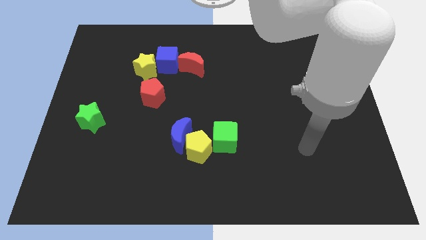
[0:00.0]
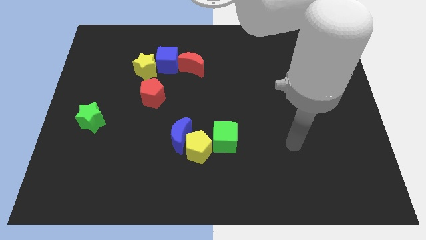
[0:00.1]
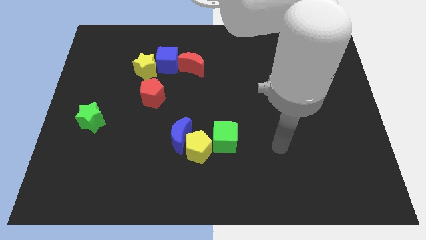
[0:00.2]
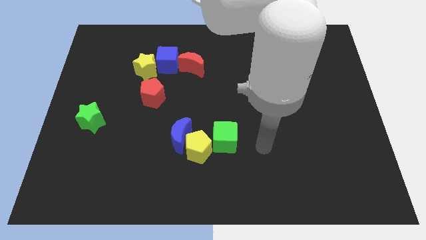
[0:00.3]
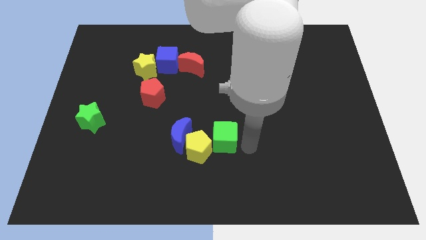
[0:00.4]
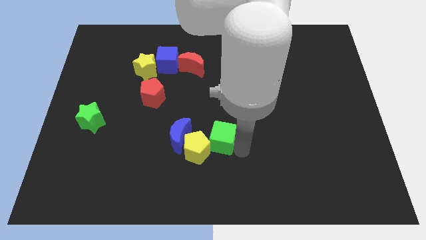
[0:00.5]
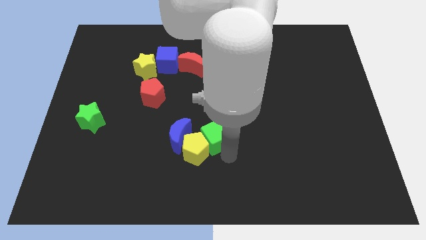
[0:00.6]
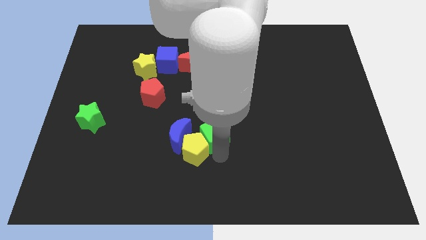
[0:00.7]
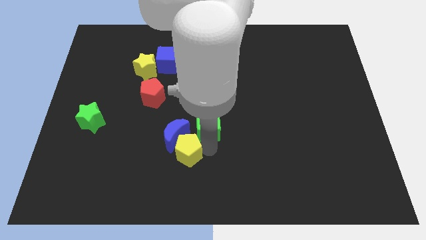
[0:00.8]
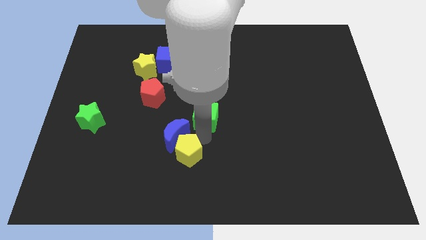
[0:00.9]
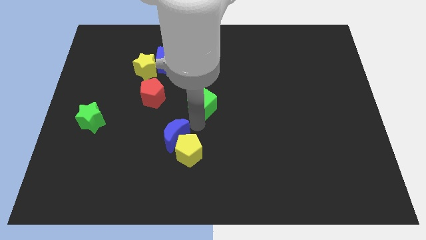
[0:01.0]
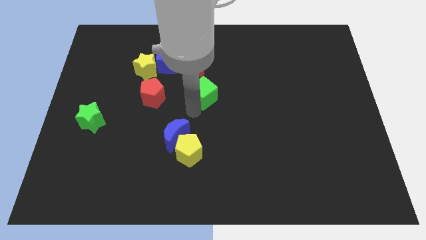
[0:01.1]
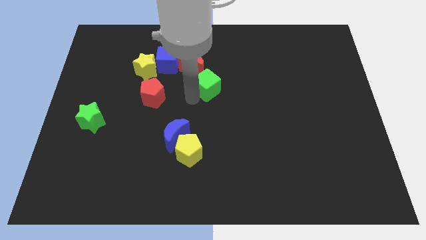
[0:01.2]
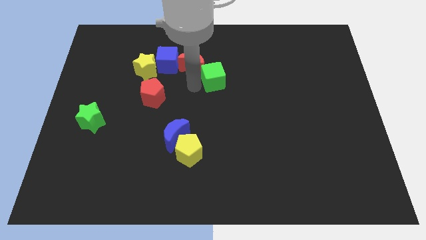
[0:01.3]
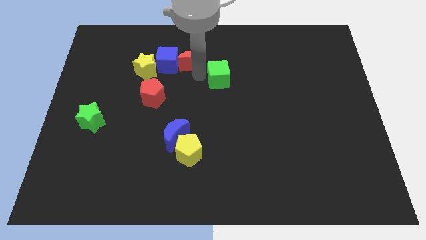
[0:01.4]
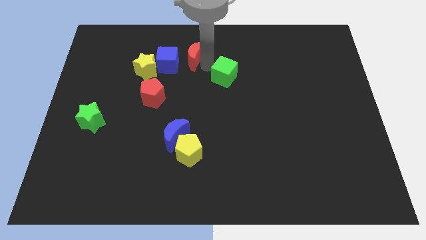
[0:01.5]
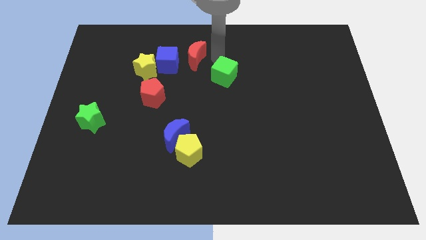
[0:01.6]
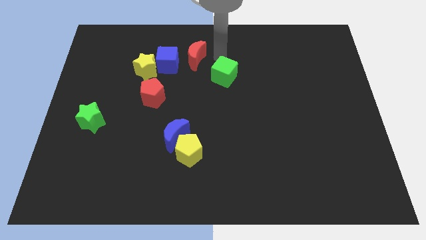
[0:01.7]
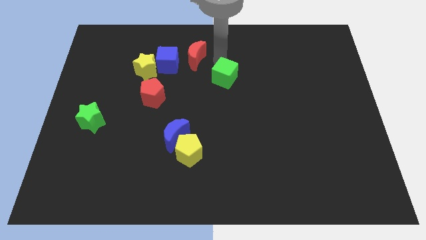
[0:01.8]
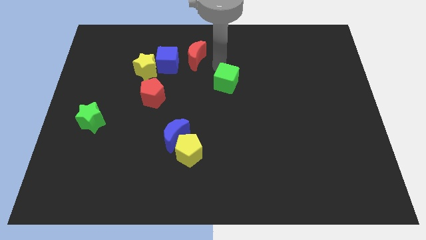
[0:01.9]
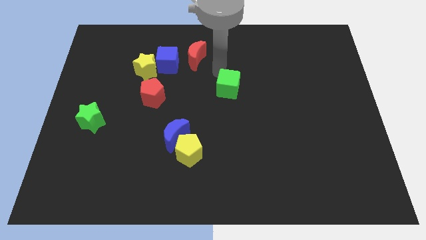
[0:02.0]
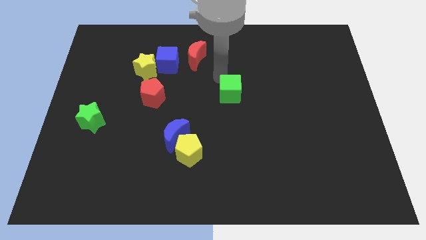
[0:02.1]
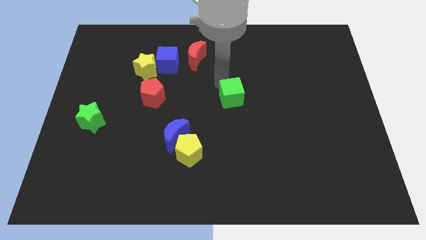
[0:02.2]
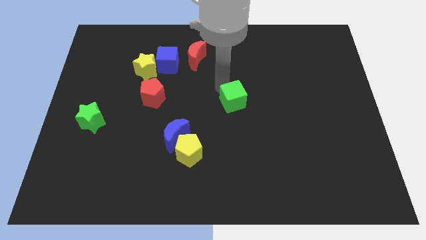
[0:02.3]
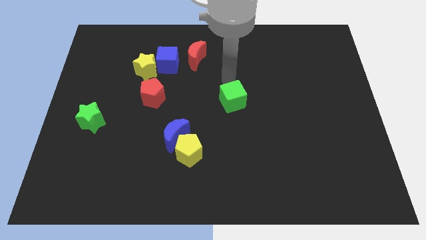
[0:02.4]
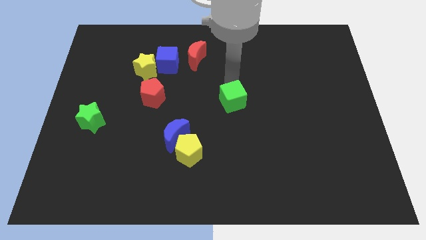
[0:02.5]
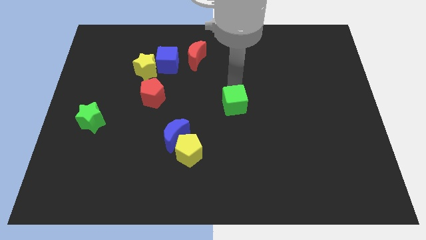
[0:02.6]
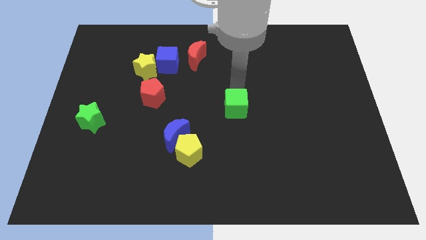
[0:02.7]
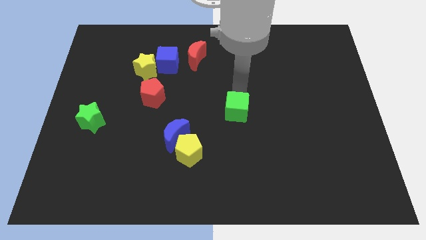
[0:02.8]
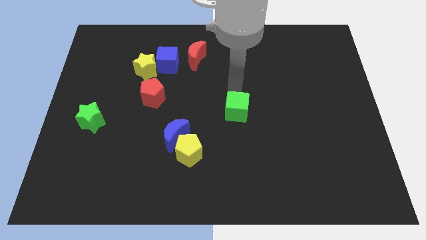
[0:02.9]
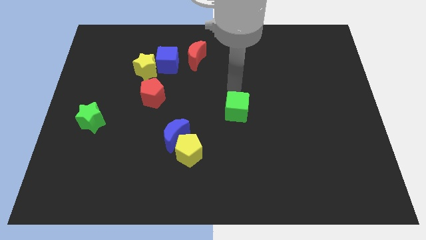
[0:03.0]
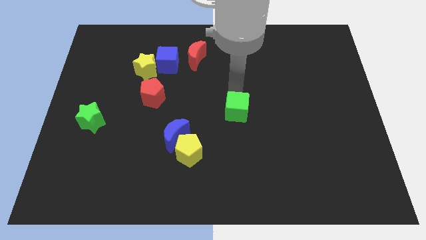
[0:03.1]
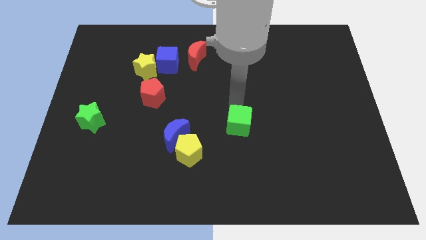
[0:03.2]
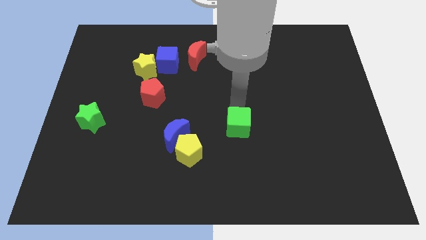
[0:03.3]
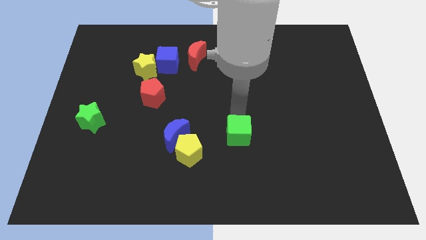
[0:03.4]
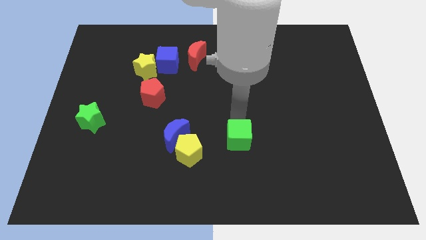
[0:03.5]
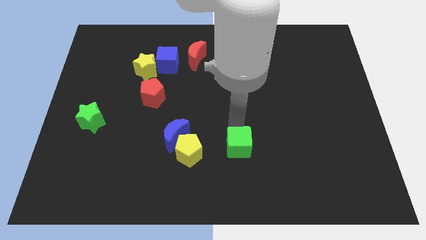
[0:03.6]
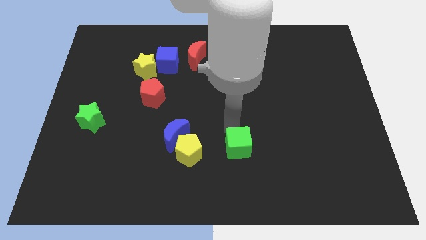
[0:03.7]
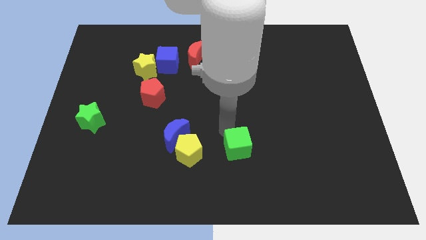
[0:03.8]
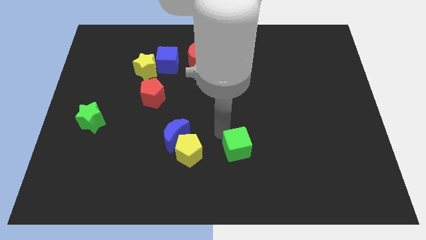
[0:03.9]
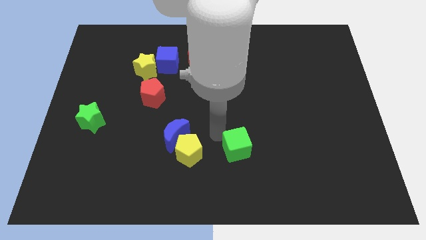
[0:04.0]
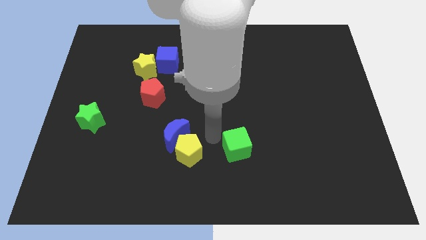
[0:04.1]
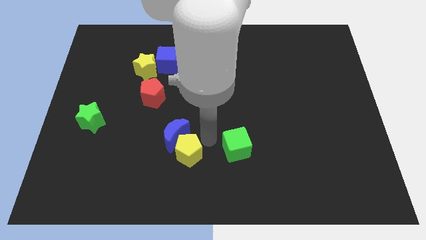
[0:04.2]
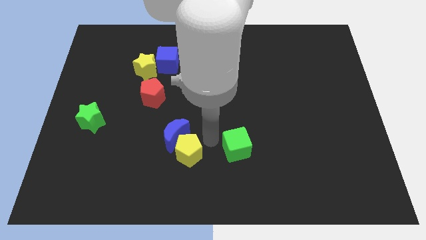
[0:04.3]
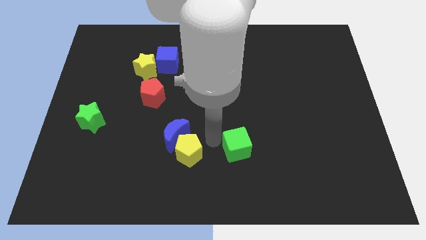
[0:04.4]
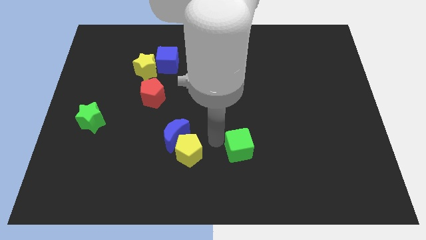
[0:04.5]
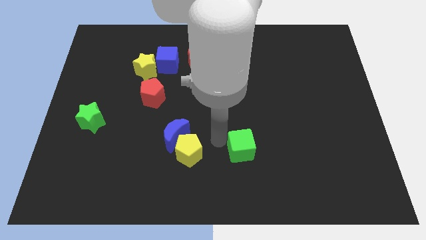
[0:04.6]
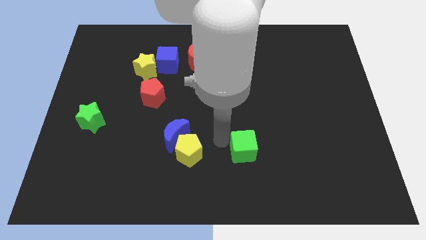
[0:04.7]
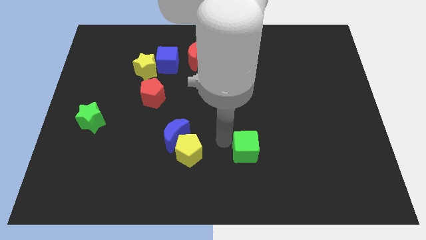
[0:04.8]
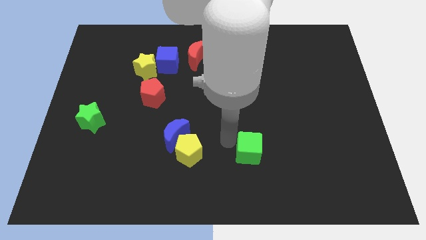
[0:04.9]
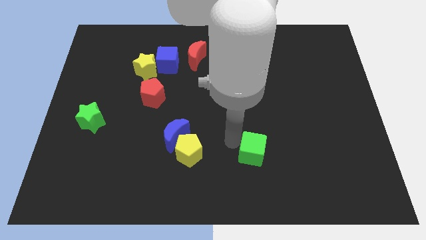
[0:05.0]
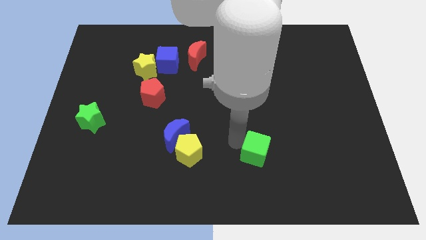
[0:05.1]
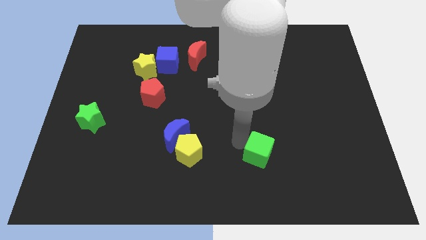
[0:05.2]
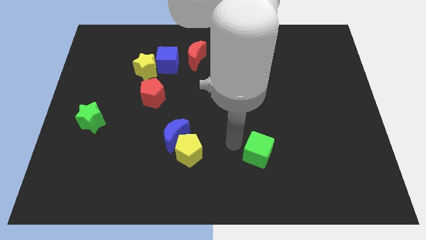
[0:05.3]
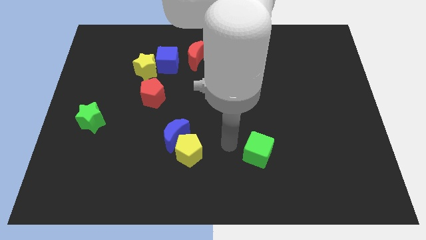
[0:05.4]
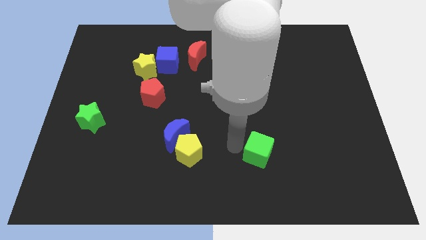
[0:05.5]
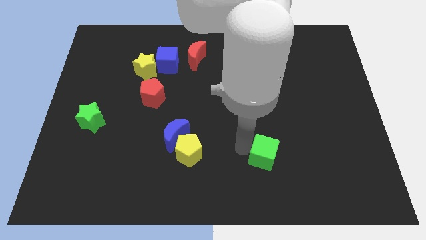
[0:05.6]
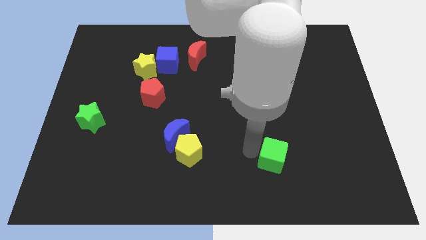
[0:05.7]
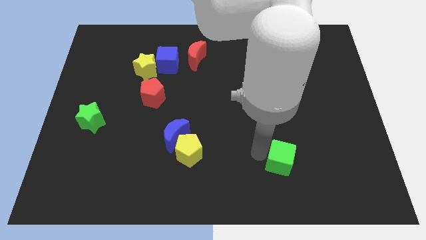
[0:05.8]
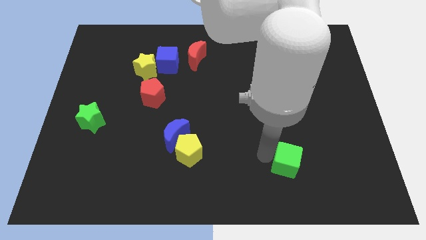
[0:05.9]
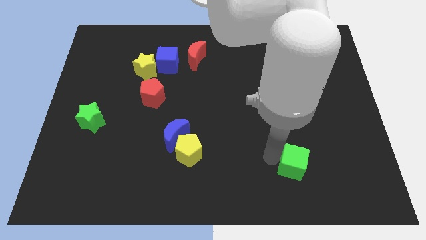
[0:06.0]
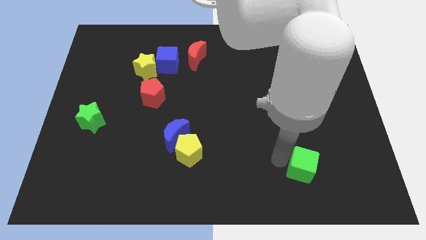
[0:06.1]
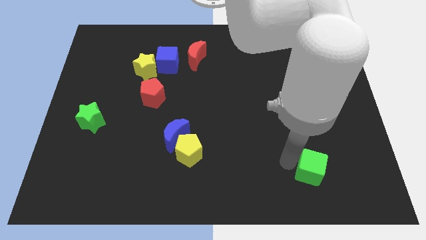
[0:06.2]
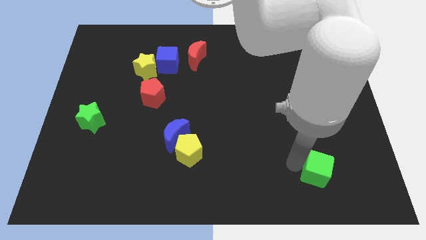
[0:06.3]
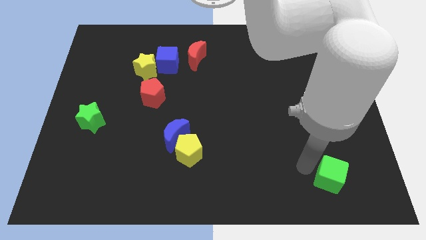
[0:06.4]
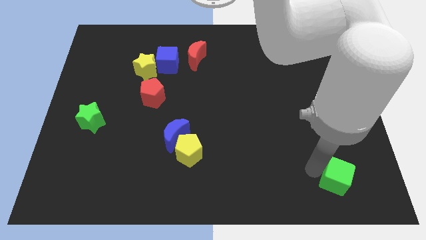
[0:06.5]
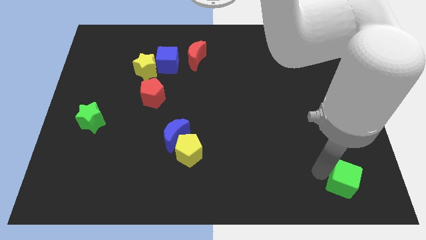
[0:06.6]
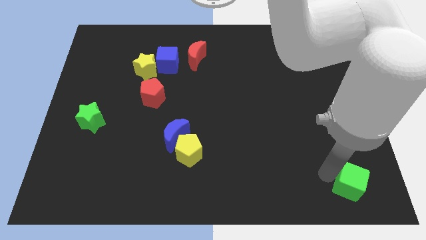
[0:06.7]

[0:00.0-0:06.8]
put the green cube to the lower right corner

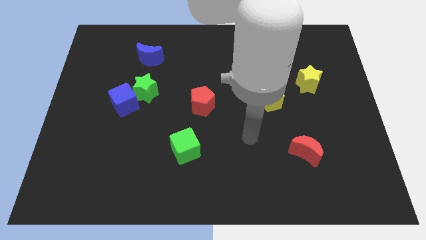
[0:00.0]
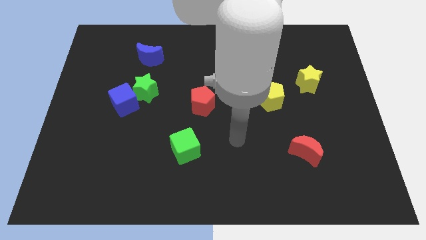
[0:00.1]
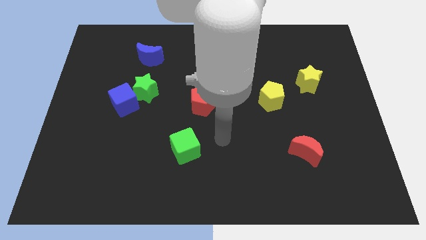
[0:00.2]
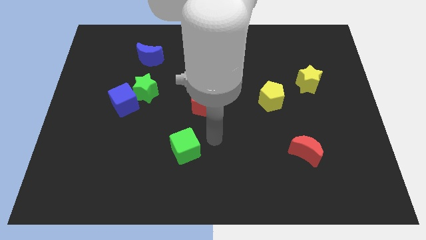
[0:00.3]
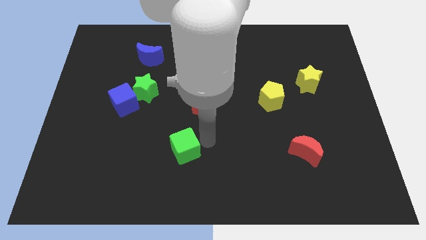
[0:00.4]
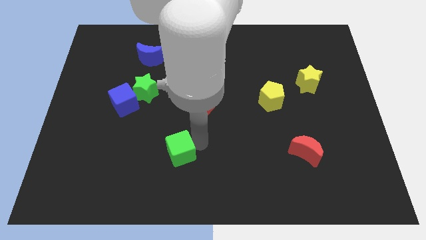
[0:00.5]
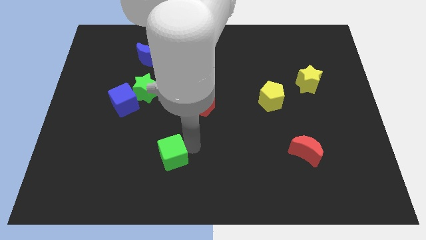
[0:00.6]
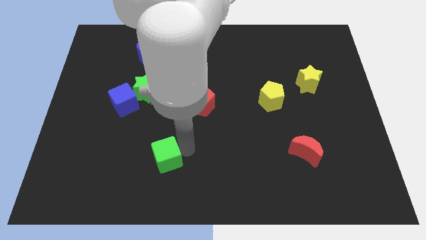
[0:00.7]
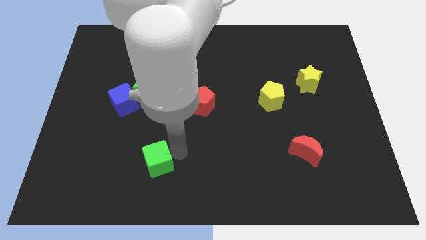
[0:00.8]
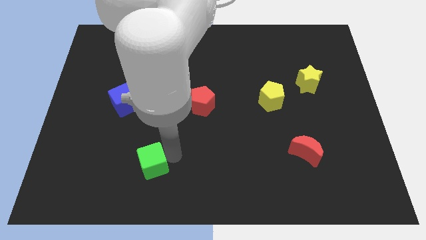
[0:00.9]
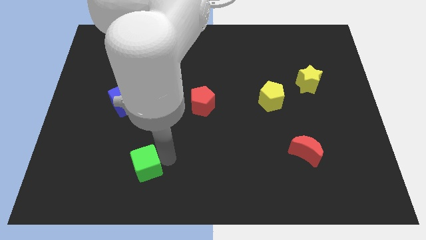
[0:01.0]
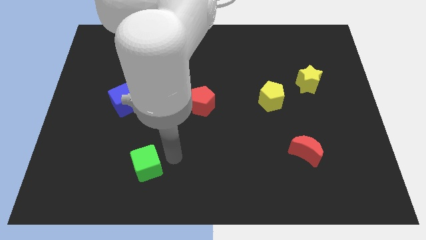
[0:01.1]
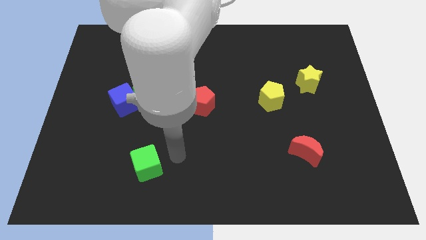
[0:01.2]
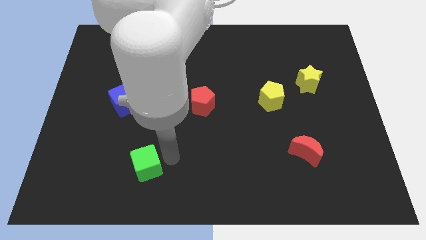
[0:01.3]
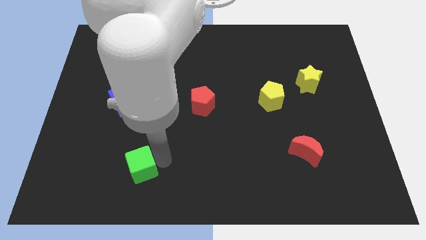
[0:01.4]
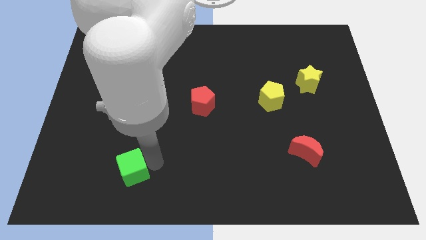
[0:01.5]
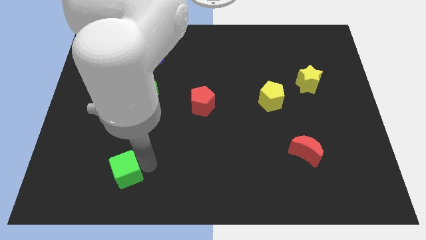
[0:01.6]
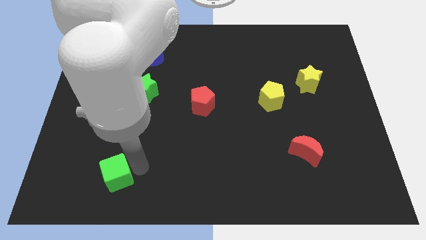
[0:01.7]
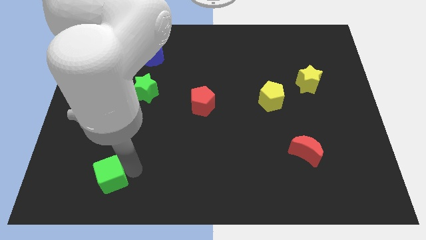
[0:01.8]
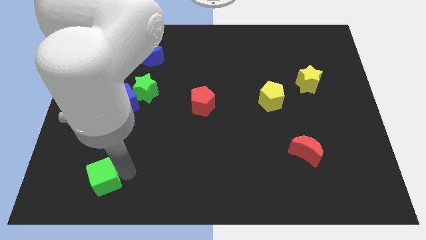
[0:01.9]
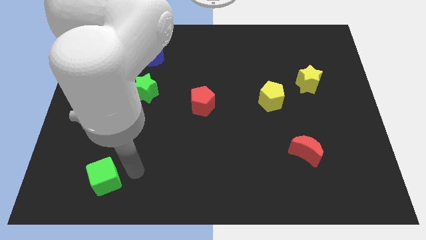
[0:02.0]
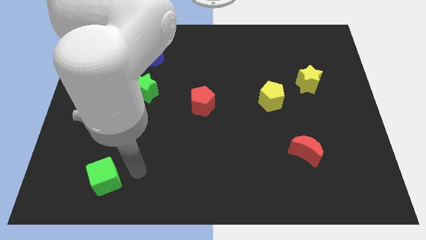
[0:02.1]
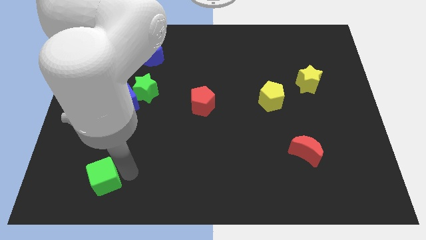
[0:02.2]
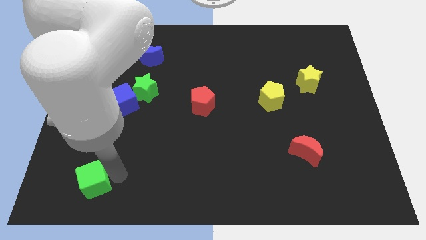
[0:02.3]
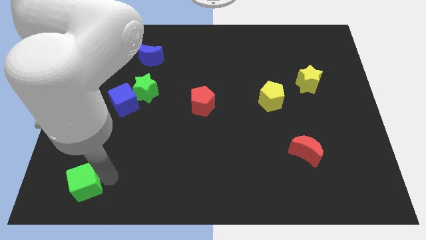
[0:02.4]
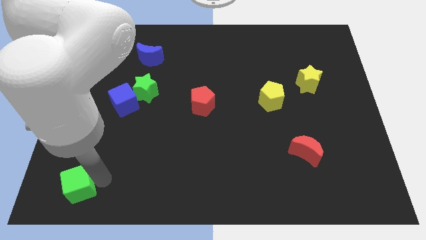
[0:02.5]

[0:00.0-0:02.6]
push the green cube to the bottom left of the board
